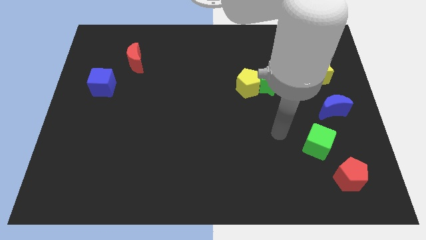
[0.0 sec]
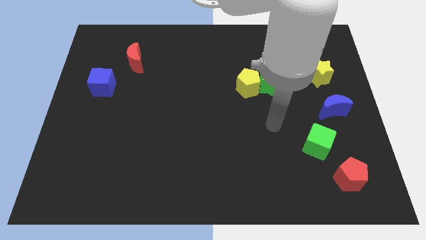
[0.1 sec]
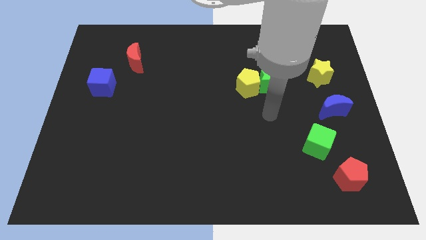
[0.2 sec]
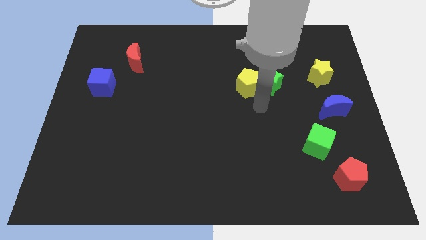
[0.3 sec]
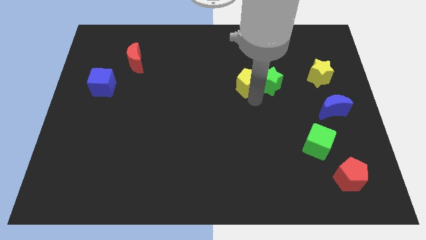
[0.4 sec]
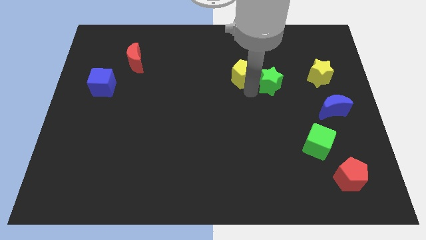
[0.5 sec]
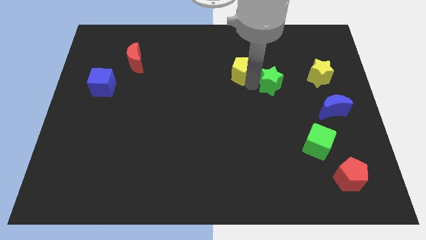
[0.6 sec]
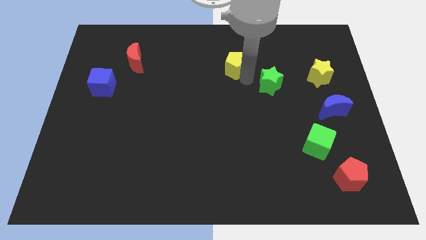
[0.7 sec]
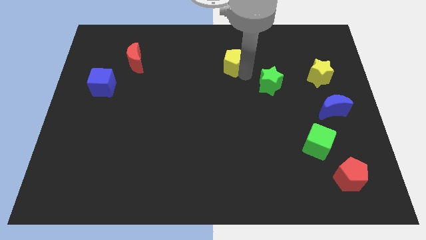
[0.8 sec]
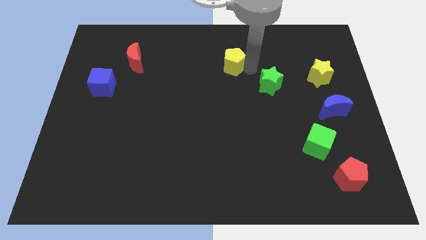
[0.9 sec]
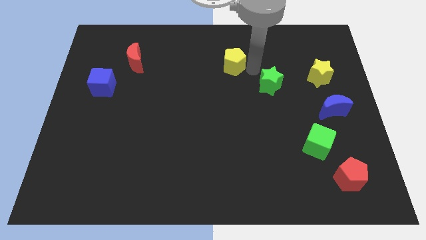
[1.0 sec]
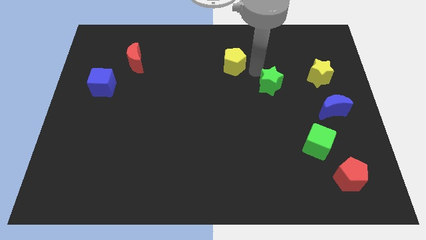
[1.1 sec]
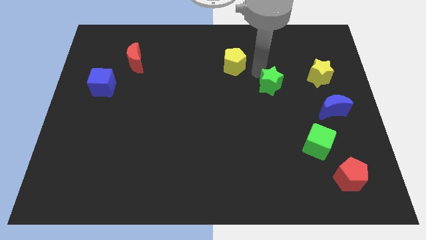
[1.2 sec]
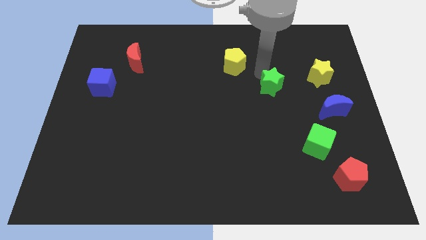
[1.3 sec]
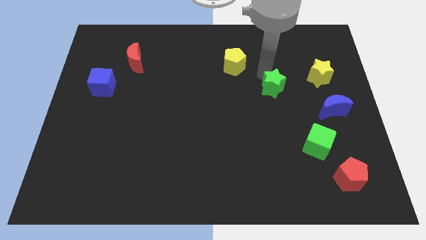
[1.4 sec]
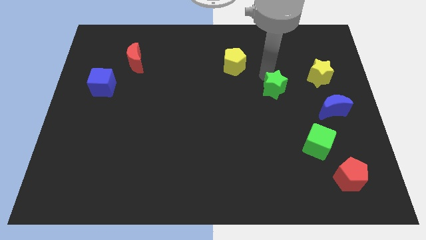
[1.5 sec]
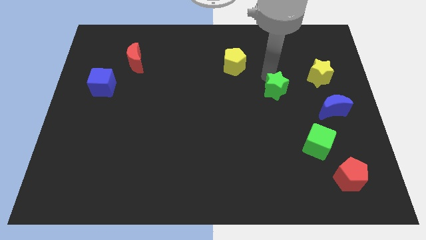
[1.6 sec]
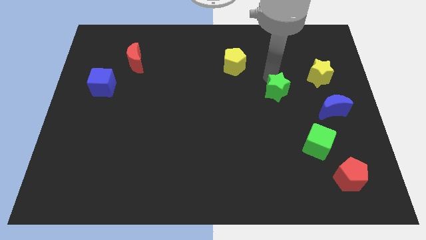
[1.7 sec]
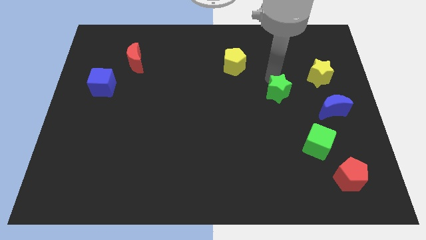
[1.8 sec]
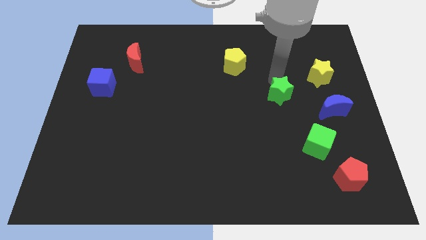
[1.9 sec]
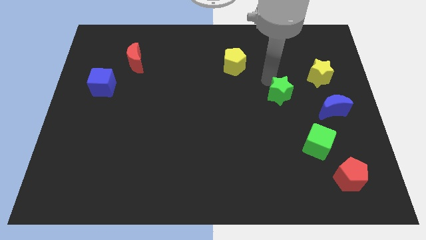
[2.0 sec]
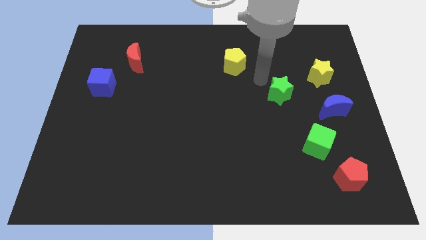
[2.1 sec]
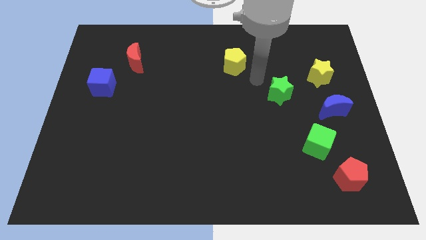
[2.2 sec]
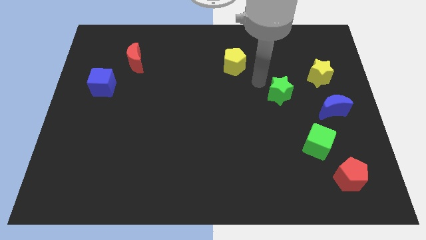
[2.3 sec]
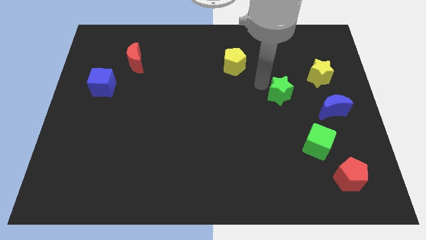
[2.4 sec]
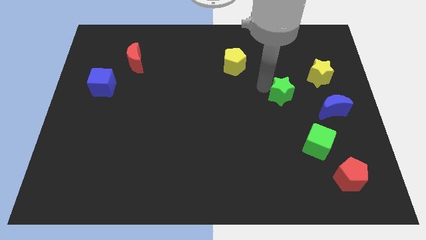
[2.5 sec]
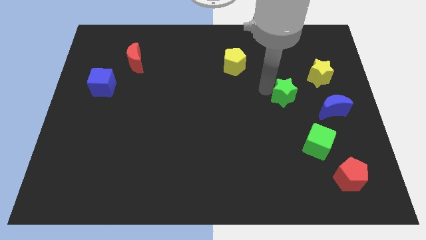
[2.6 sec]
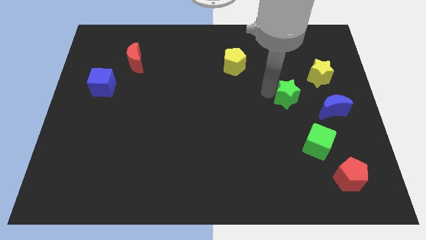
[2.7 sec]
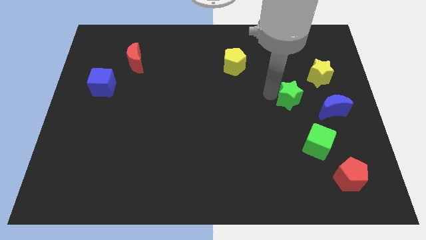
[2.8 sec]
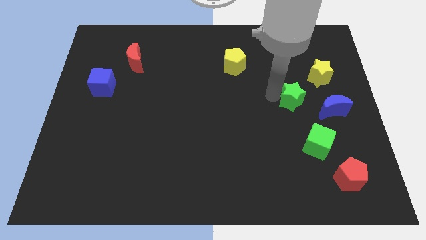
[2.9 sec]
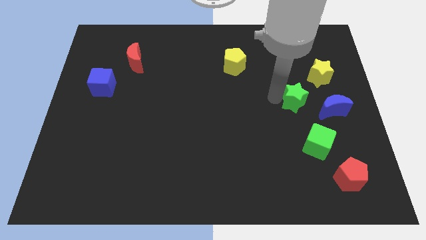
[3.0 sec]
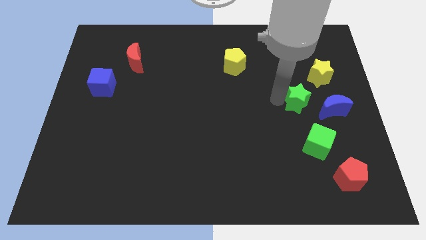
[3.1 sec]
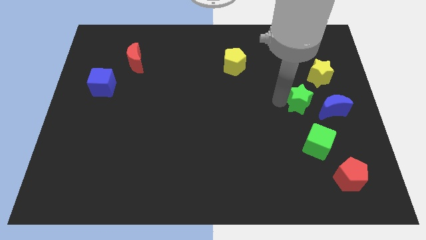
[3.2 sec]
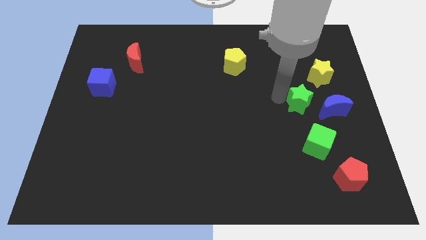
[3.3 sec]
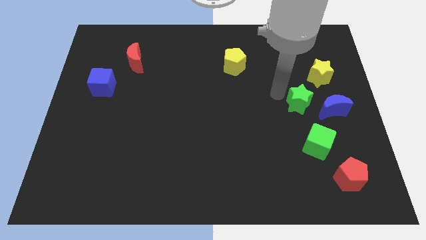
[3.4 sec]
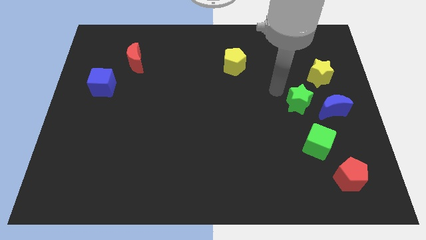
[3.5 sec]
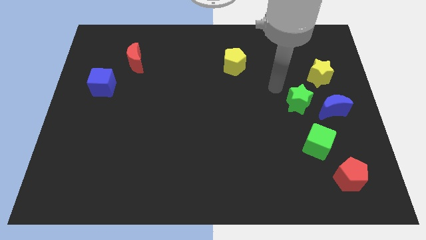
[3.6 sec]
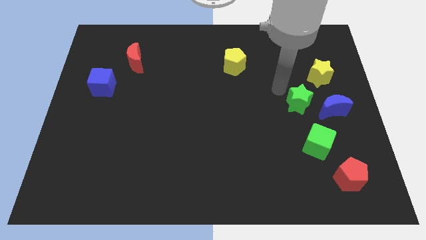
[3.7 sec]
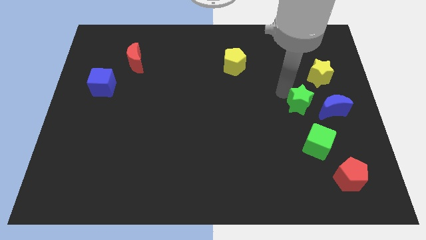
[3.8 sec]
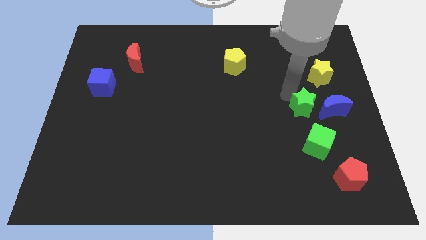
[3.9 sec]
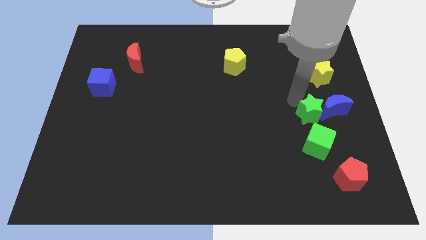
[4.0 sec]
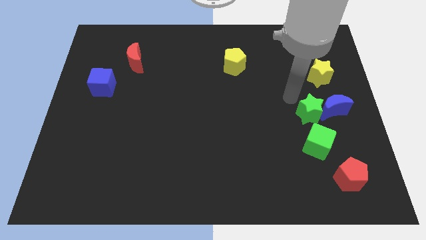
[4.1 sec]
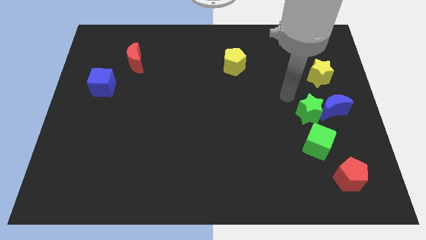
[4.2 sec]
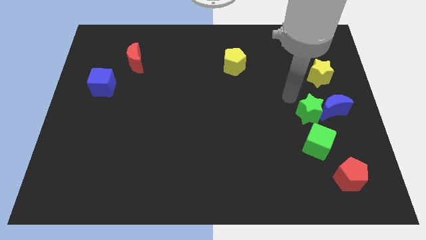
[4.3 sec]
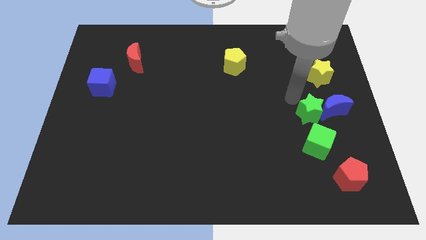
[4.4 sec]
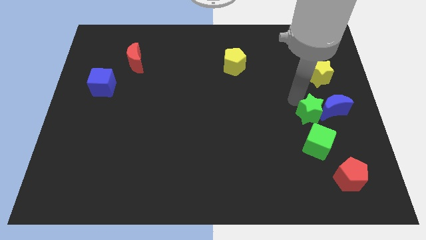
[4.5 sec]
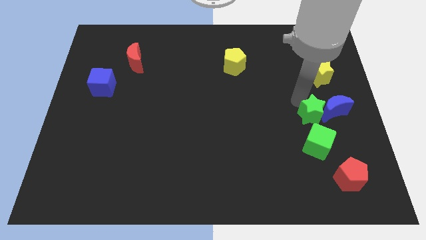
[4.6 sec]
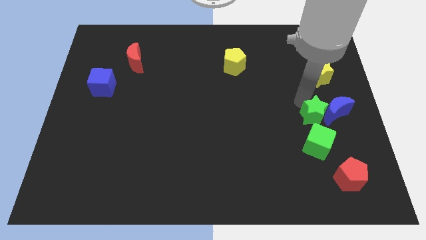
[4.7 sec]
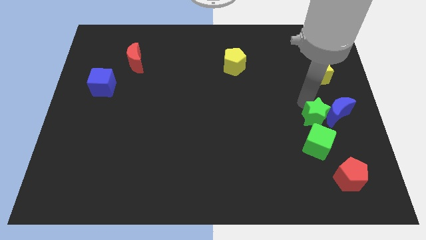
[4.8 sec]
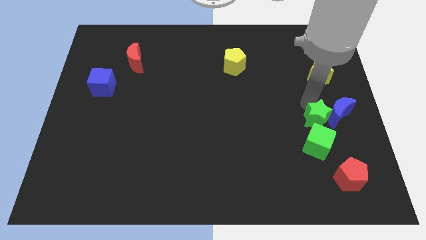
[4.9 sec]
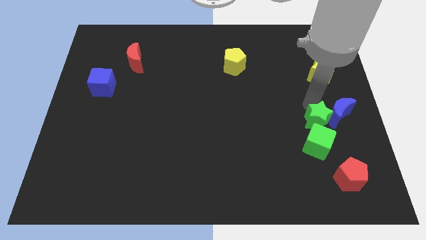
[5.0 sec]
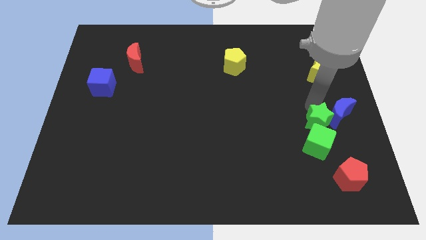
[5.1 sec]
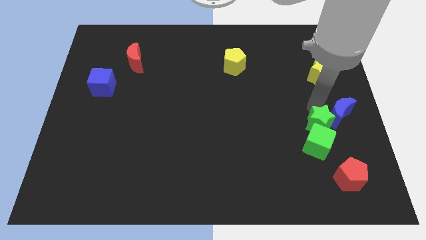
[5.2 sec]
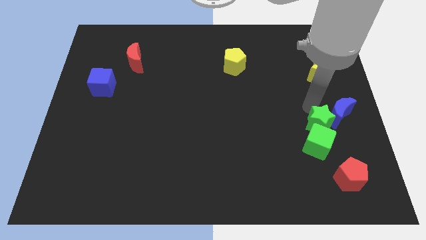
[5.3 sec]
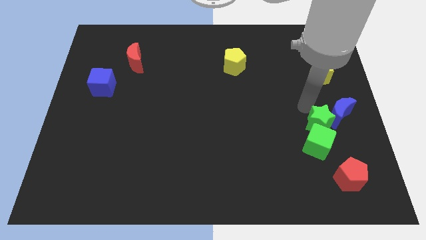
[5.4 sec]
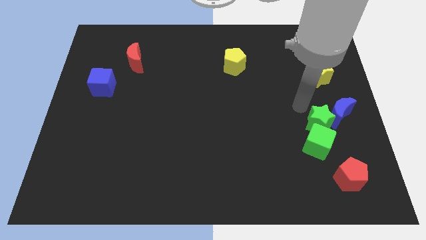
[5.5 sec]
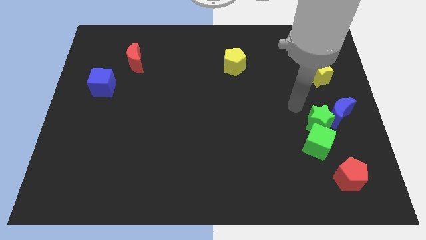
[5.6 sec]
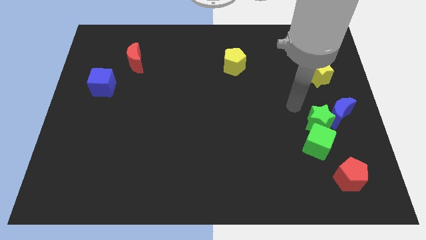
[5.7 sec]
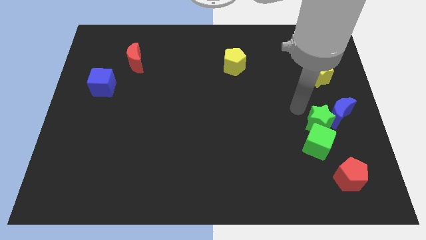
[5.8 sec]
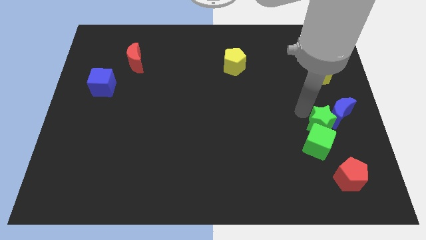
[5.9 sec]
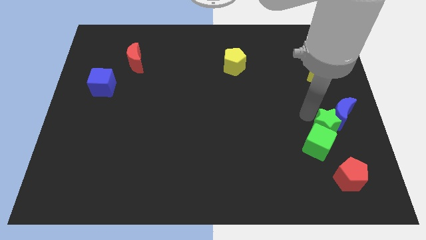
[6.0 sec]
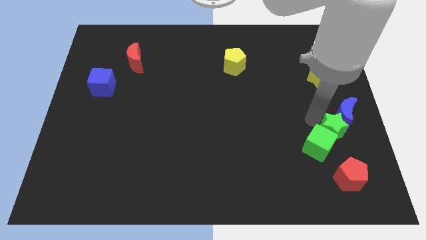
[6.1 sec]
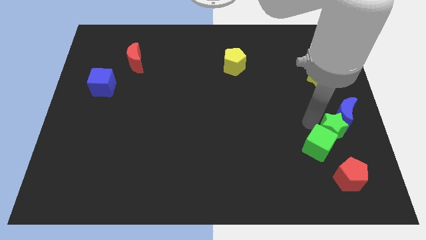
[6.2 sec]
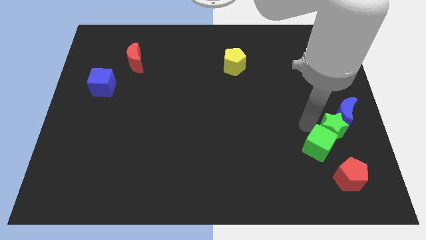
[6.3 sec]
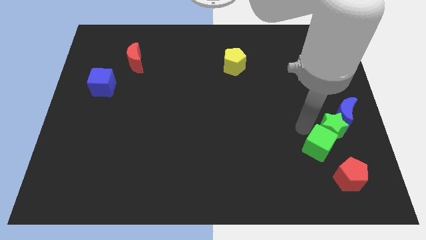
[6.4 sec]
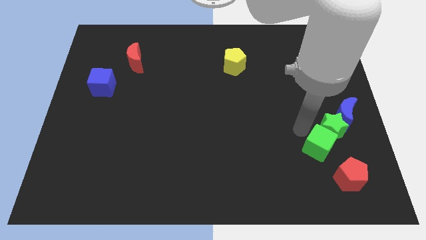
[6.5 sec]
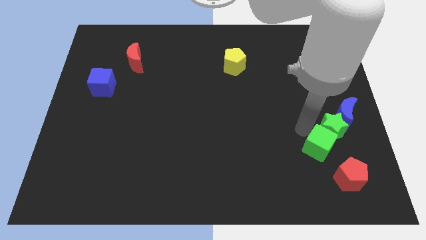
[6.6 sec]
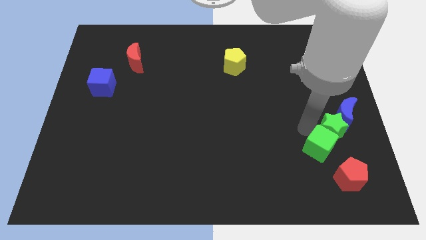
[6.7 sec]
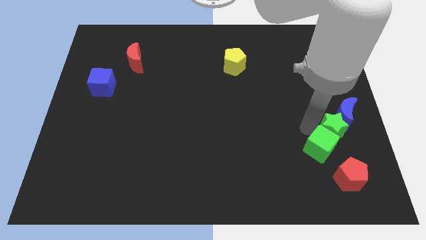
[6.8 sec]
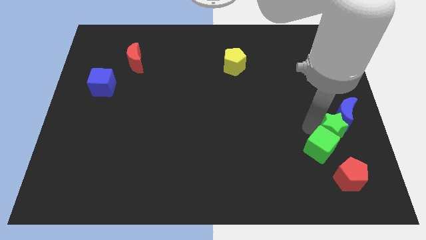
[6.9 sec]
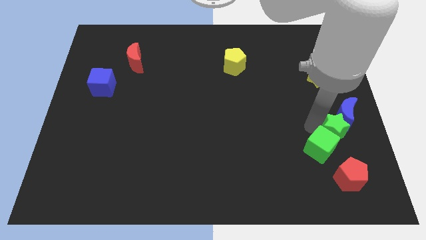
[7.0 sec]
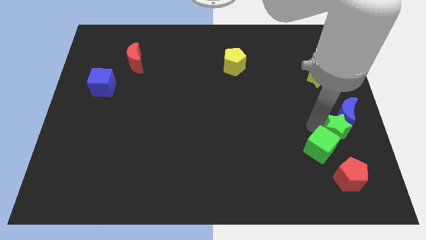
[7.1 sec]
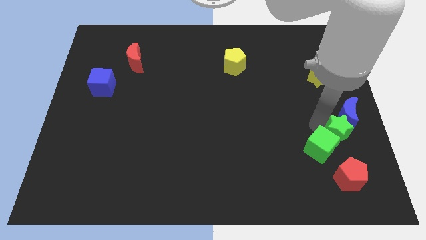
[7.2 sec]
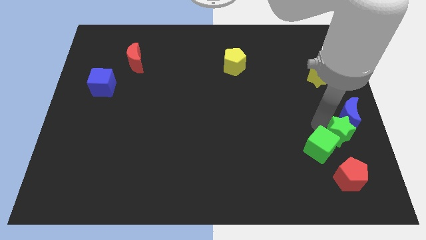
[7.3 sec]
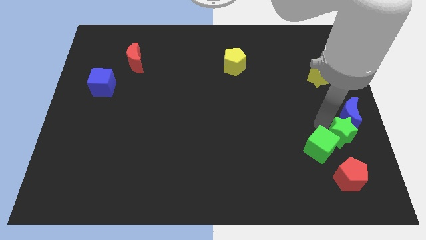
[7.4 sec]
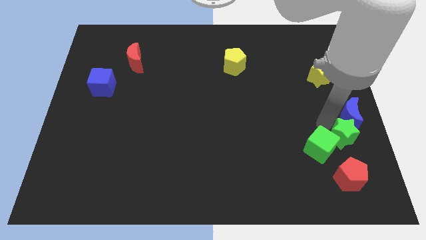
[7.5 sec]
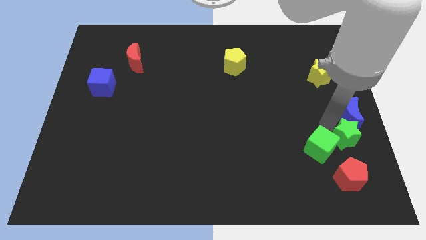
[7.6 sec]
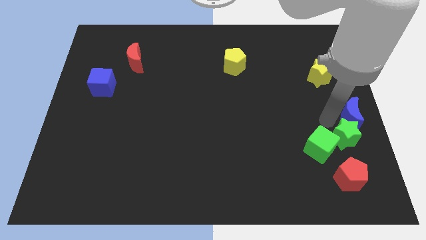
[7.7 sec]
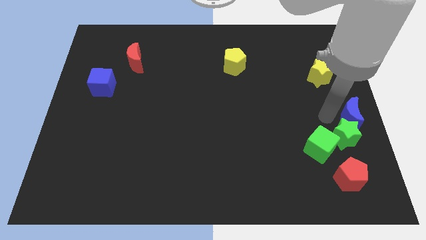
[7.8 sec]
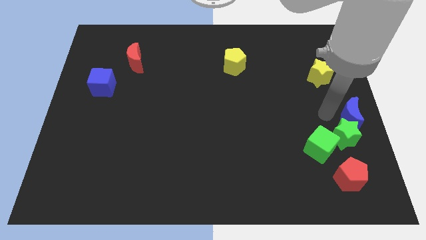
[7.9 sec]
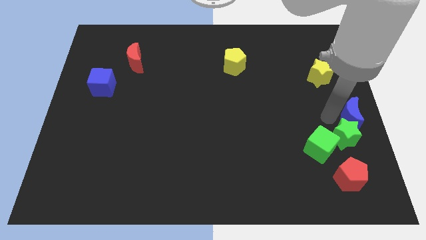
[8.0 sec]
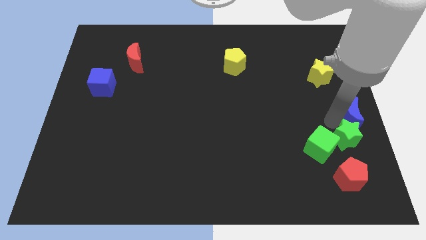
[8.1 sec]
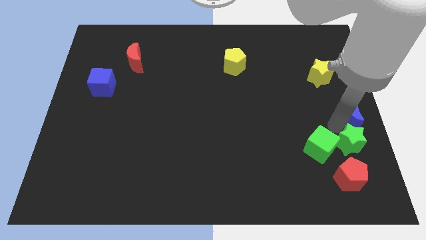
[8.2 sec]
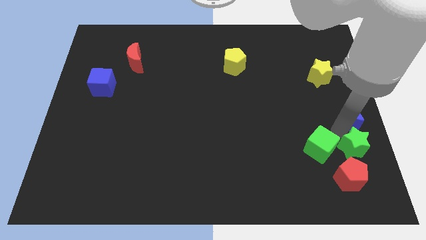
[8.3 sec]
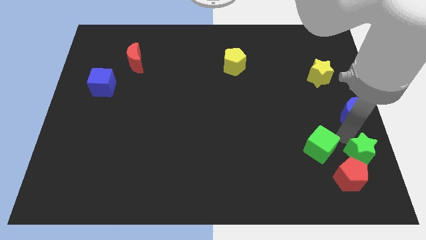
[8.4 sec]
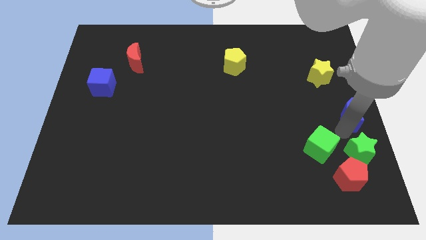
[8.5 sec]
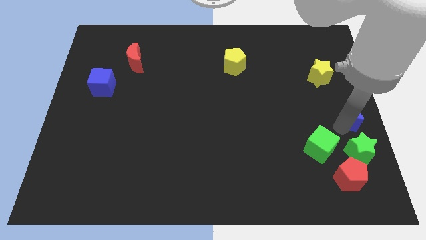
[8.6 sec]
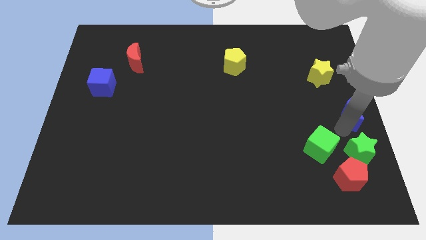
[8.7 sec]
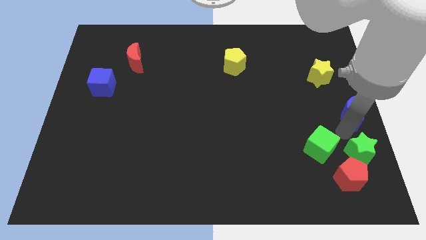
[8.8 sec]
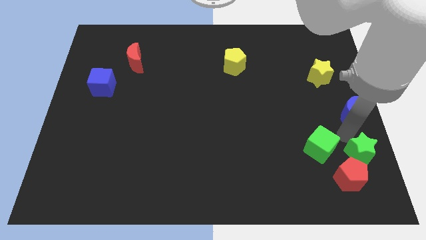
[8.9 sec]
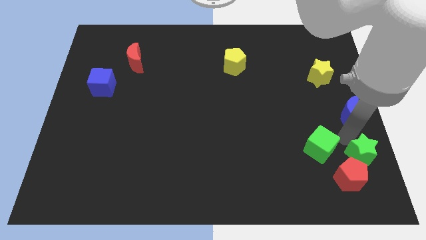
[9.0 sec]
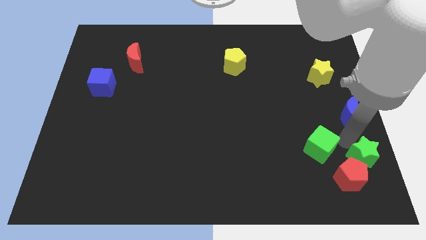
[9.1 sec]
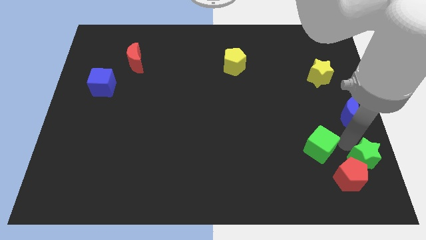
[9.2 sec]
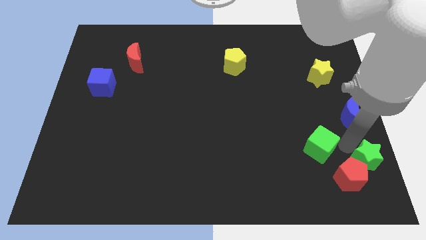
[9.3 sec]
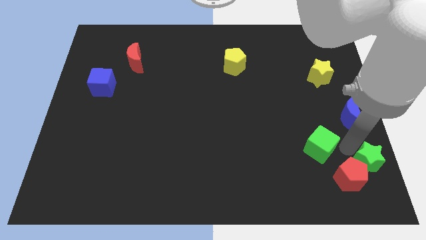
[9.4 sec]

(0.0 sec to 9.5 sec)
put the green star to the bottom right of the board
